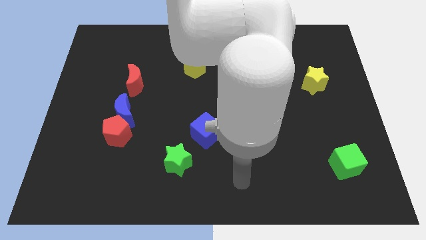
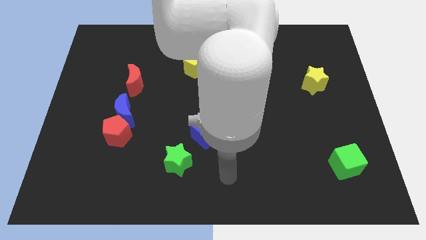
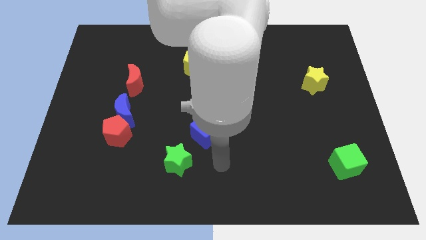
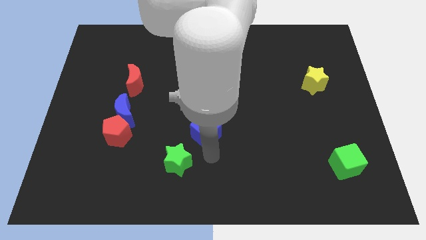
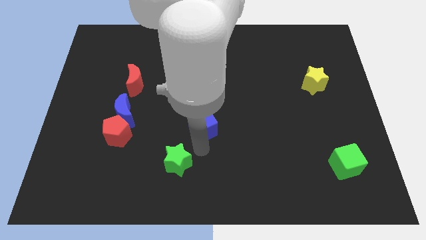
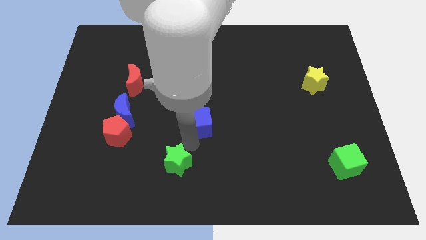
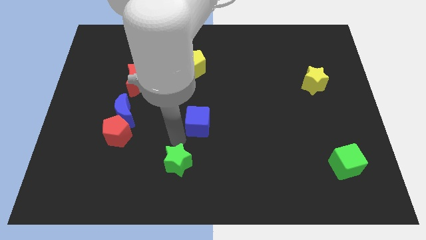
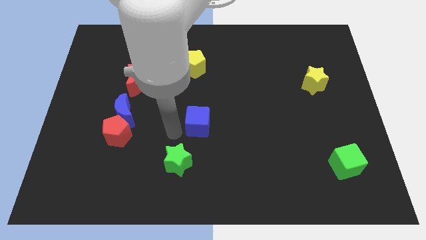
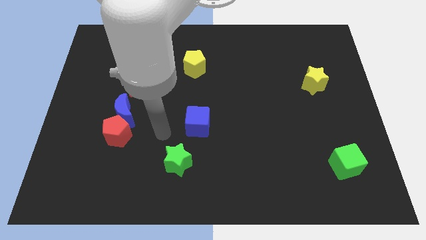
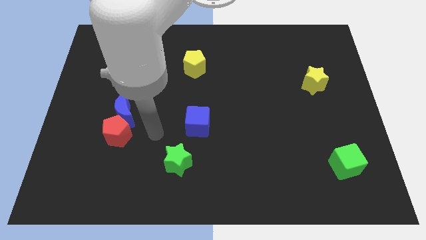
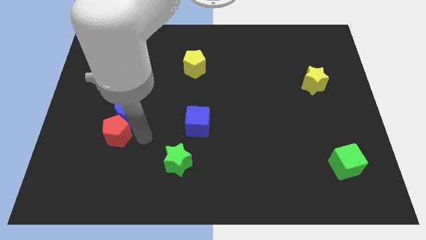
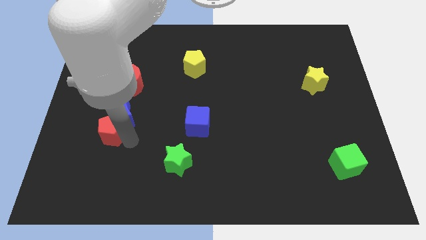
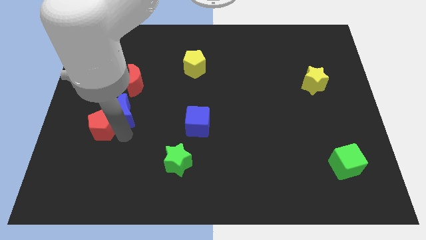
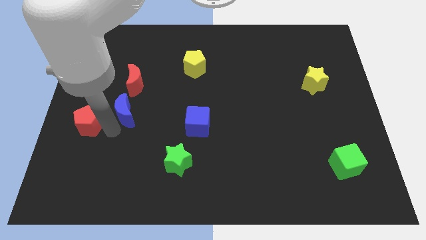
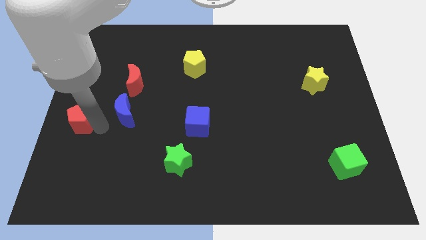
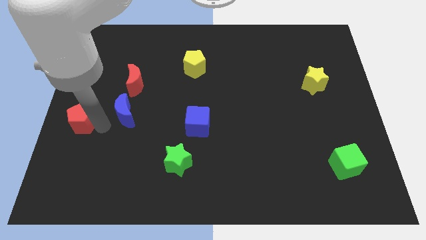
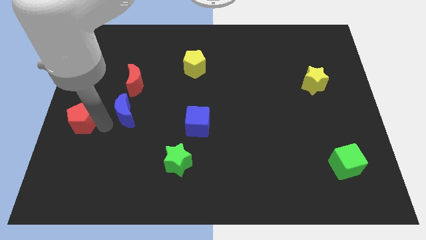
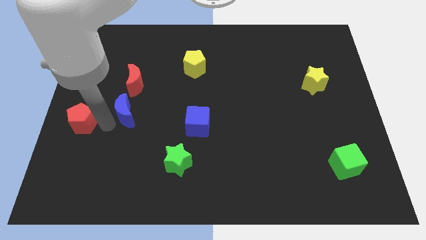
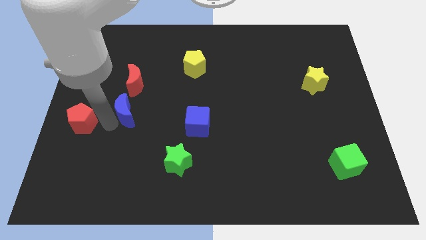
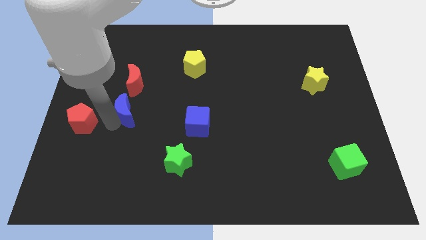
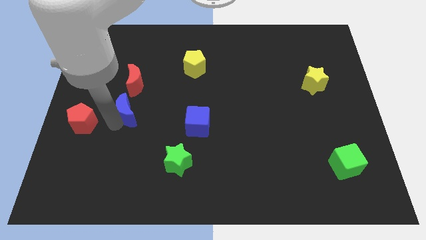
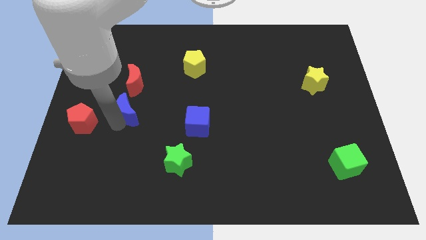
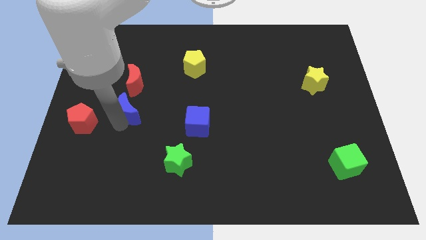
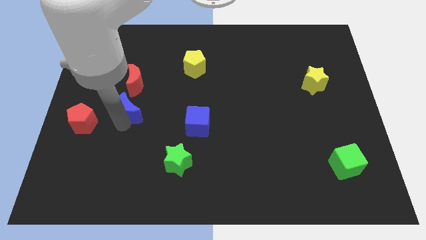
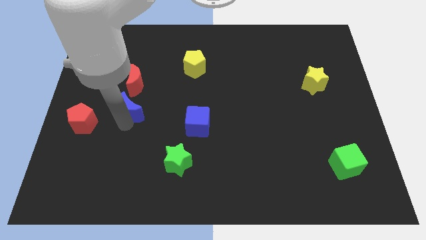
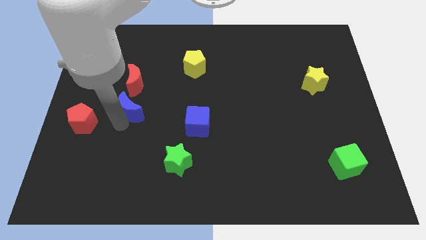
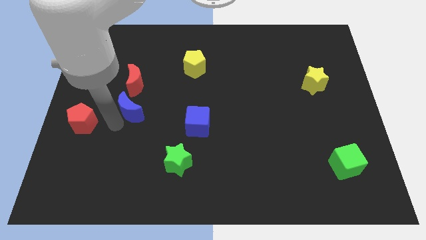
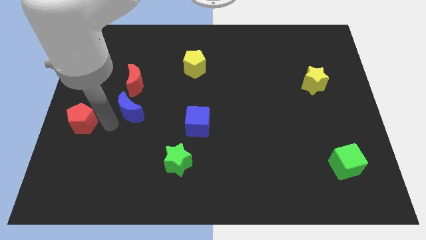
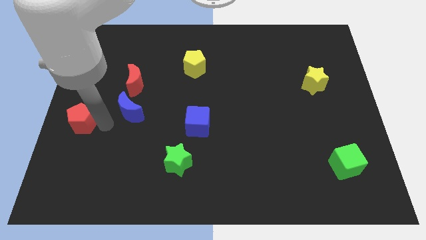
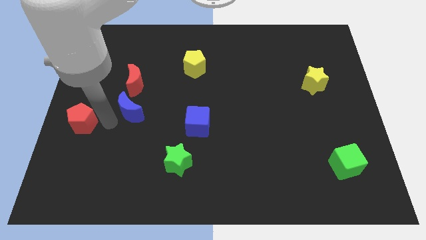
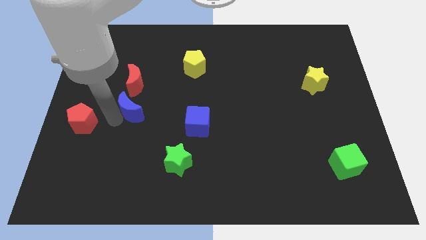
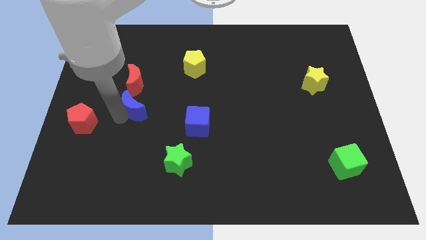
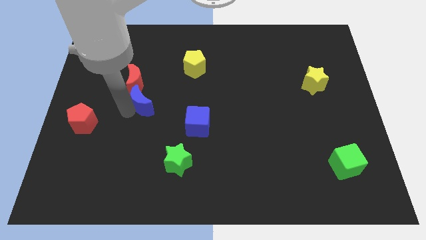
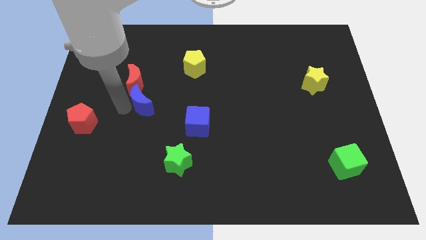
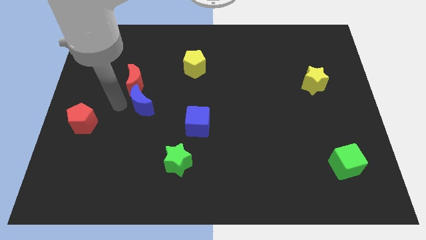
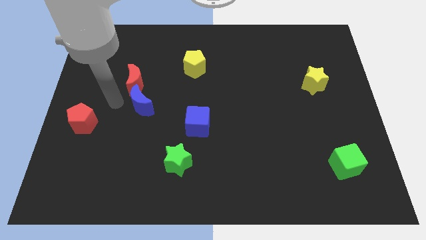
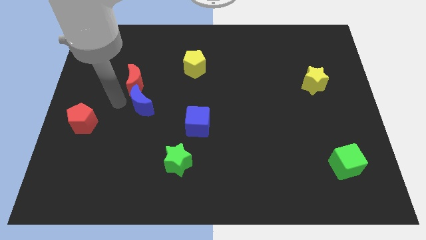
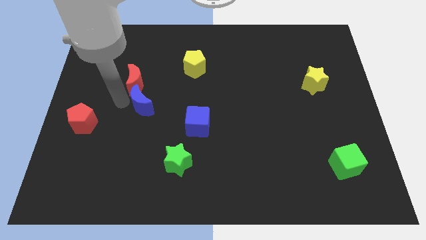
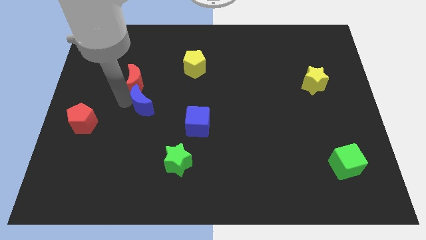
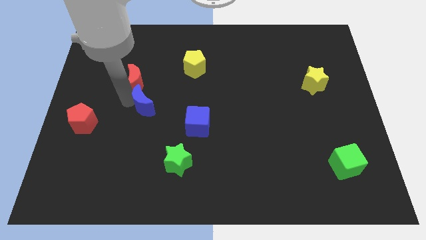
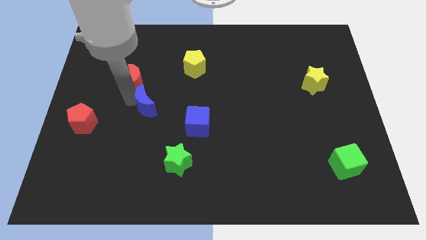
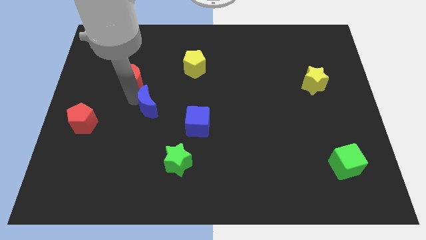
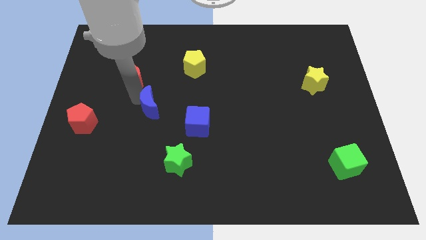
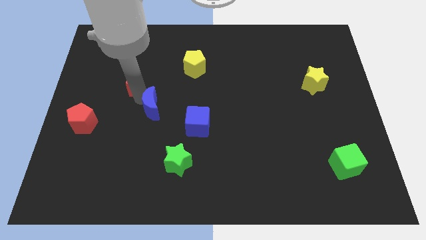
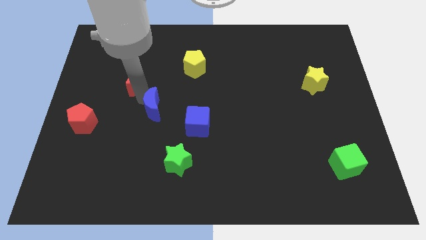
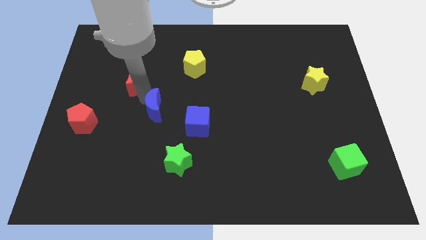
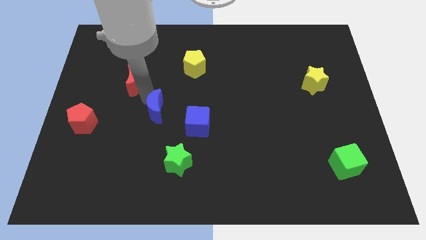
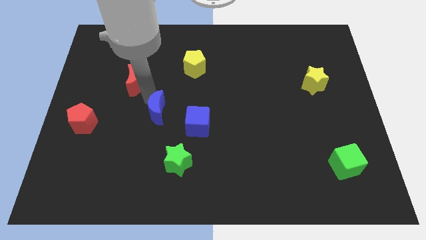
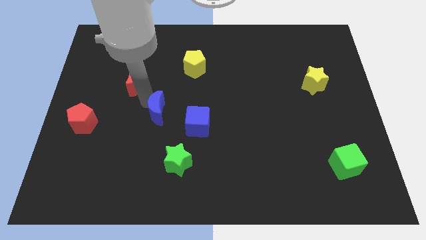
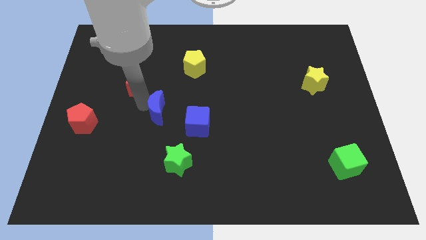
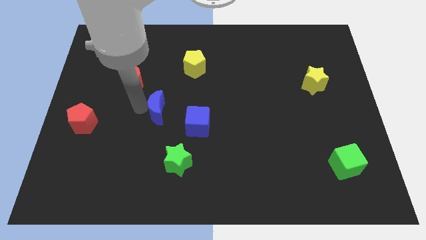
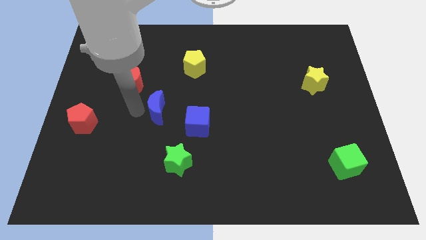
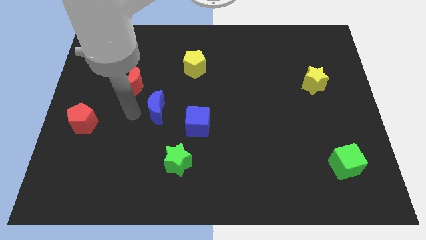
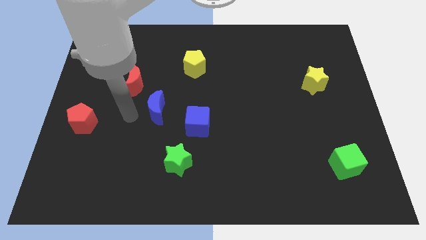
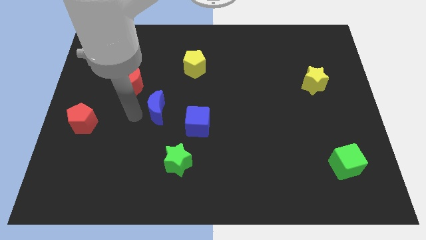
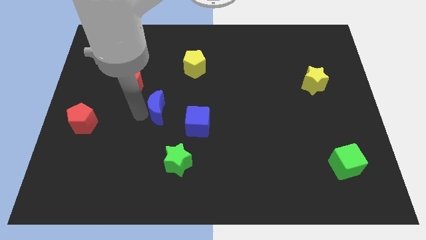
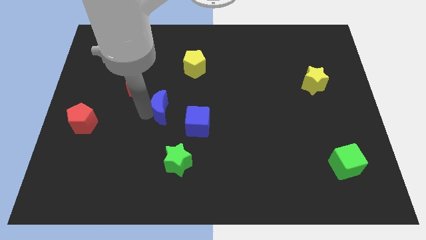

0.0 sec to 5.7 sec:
put the blue moon to the middle

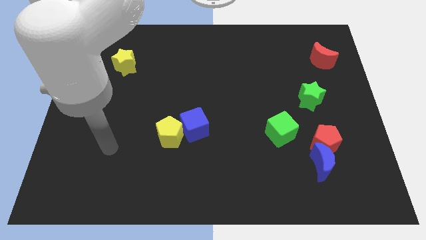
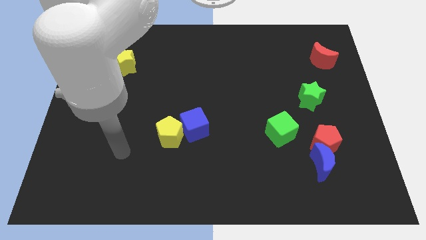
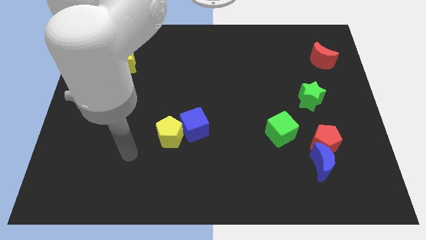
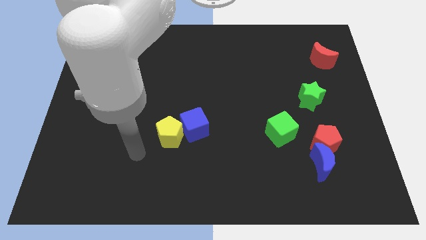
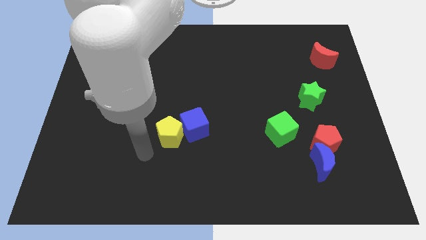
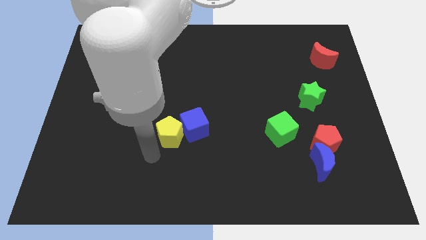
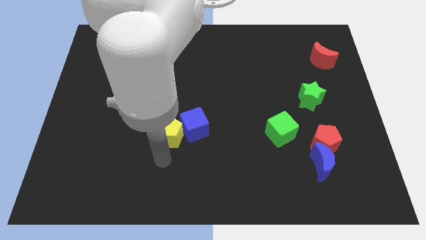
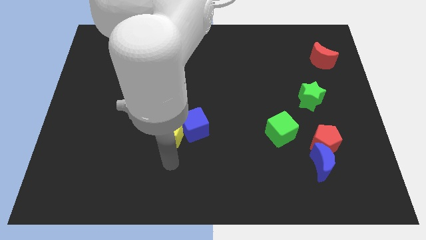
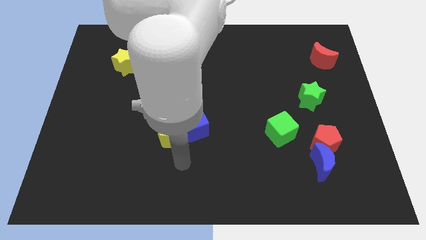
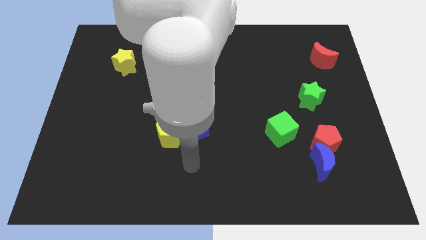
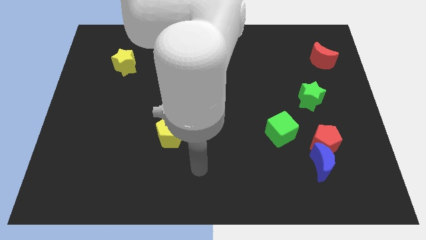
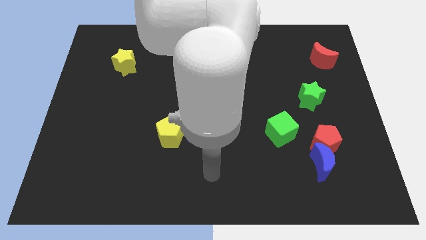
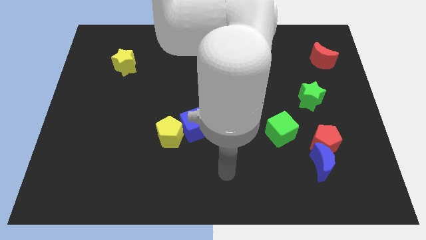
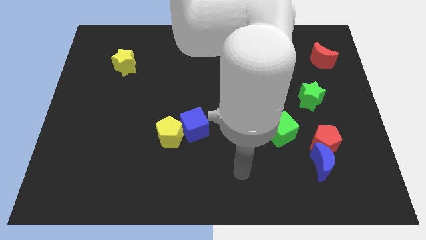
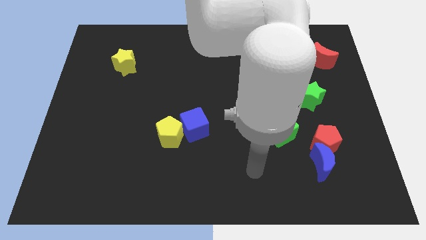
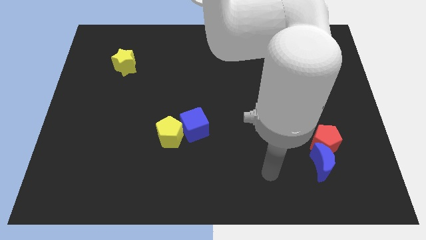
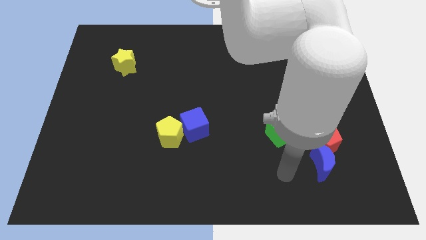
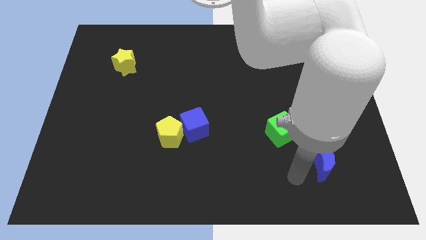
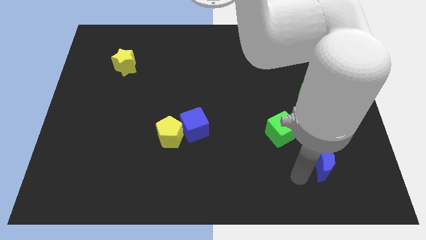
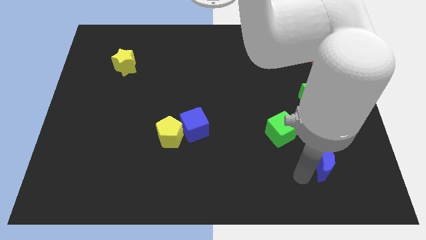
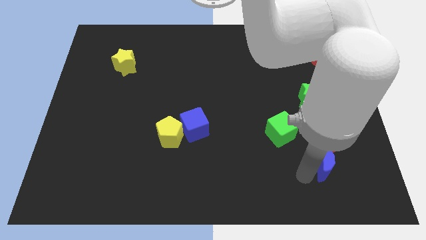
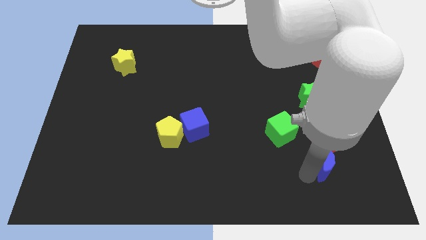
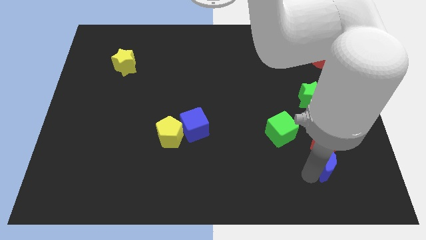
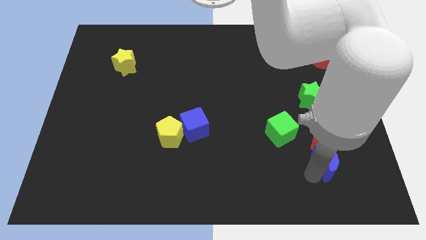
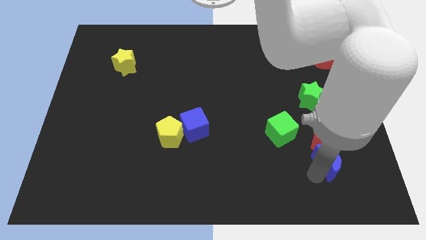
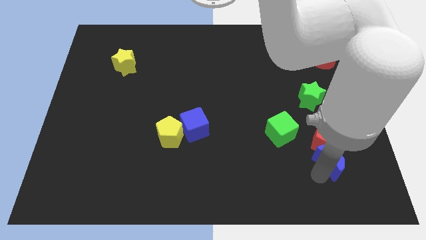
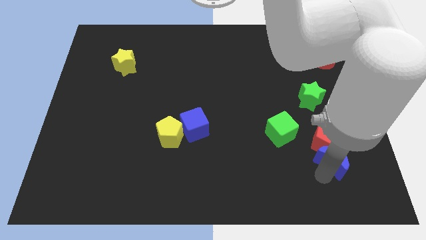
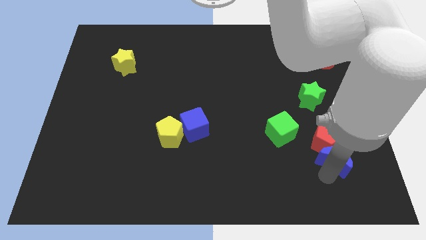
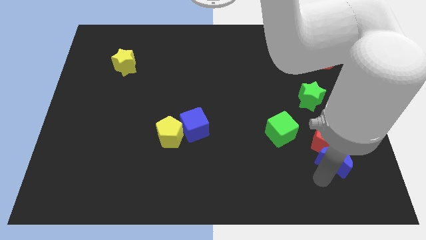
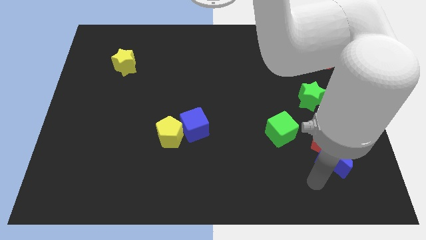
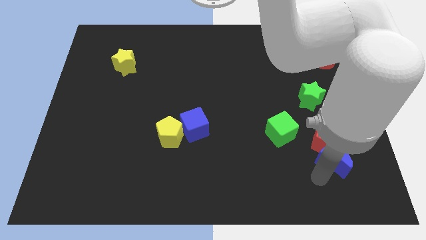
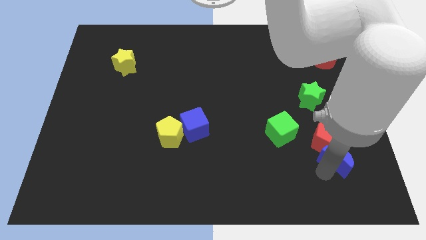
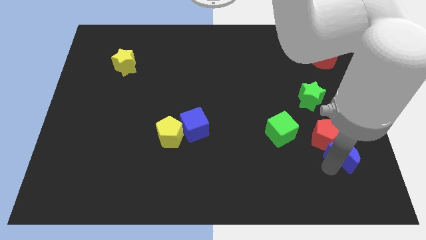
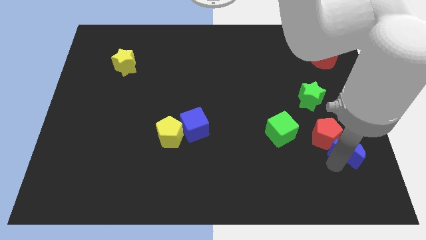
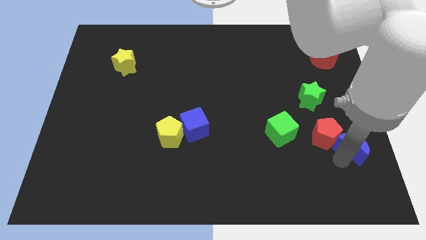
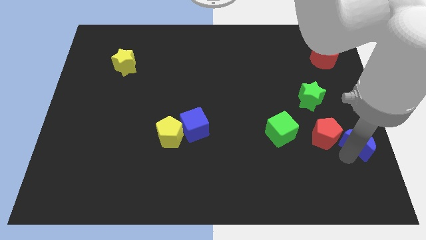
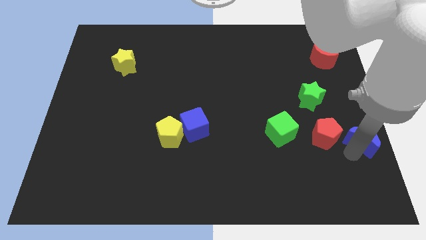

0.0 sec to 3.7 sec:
put the blue moon to the center right
